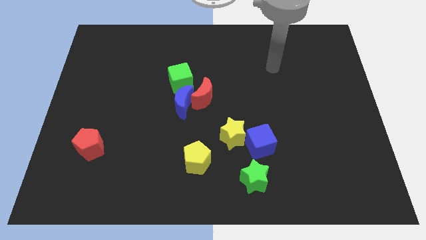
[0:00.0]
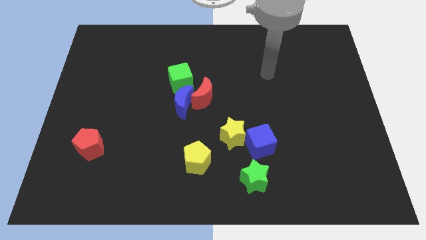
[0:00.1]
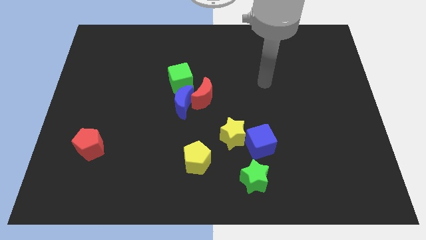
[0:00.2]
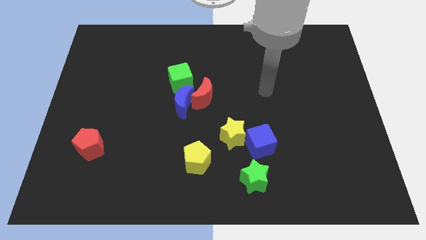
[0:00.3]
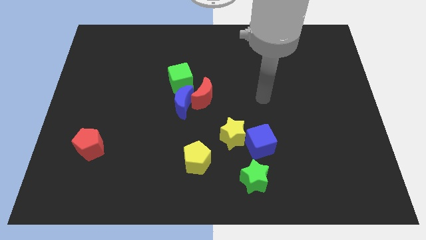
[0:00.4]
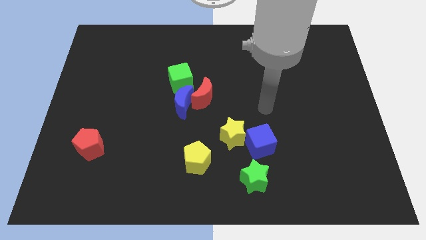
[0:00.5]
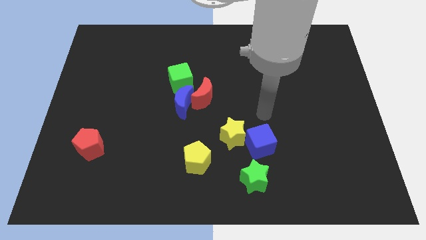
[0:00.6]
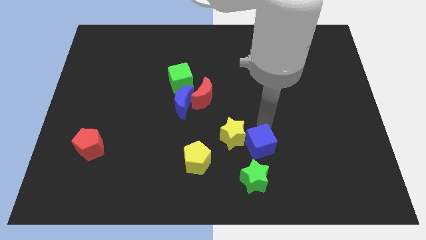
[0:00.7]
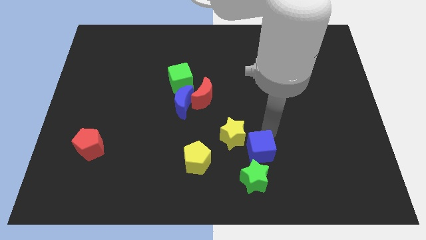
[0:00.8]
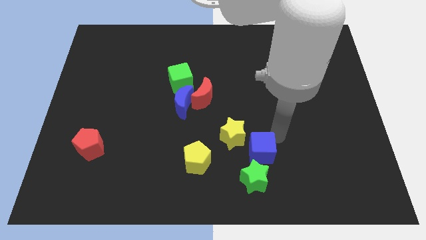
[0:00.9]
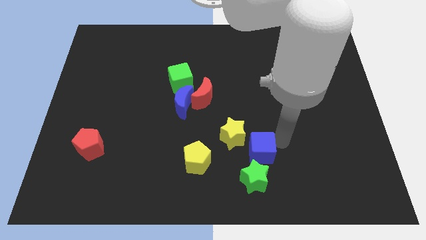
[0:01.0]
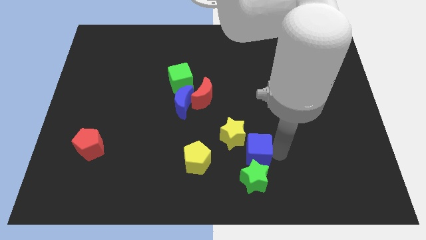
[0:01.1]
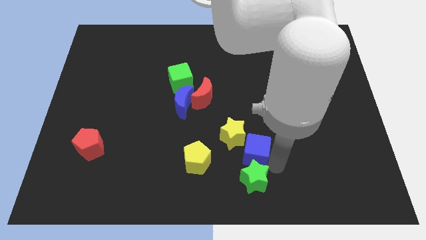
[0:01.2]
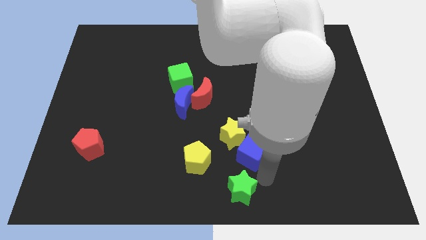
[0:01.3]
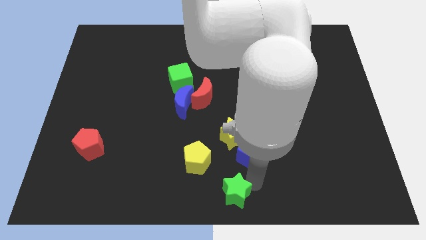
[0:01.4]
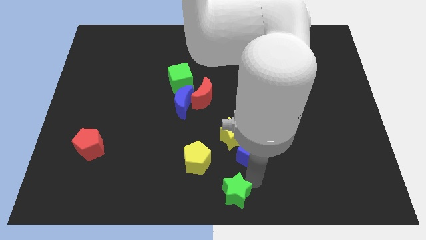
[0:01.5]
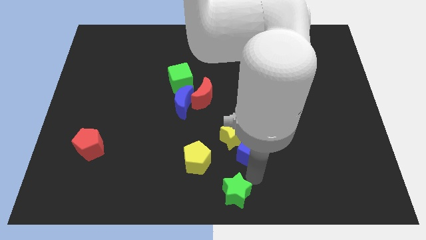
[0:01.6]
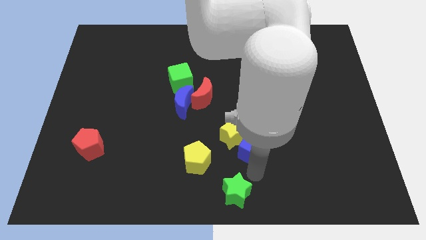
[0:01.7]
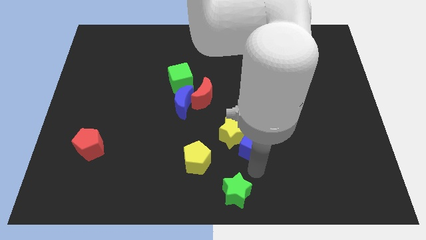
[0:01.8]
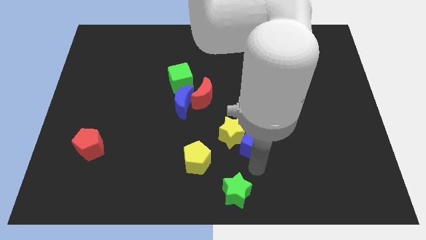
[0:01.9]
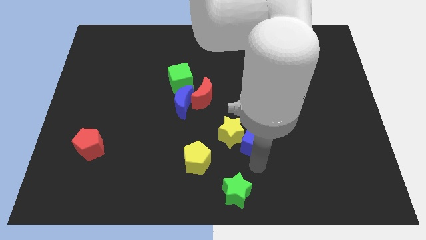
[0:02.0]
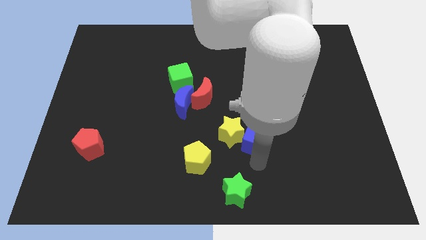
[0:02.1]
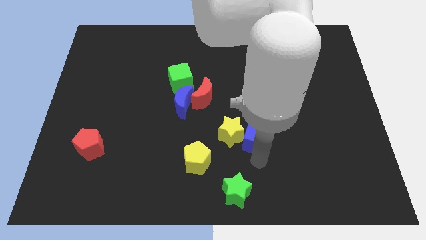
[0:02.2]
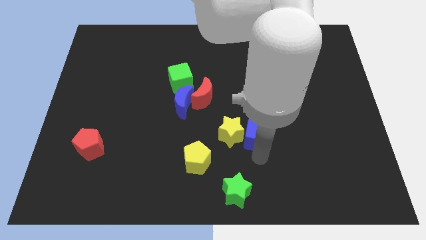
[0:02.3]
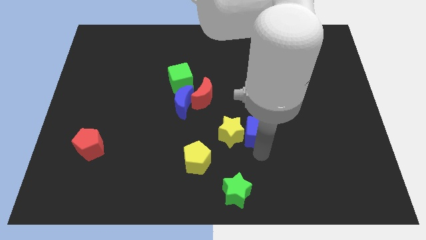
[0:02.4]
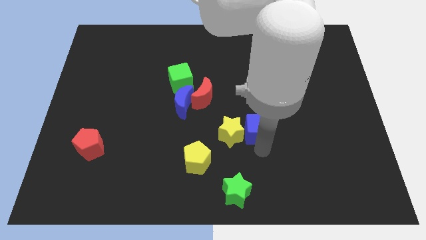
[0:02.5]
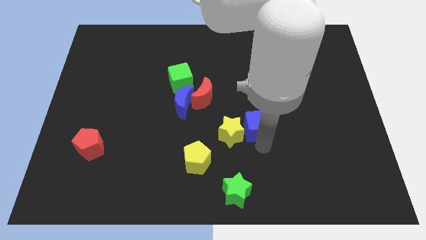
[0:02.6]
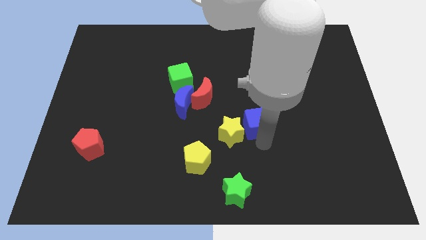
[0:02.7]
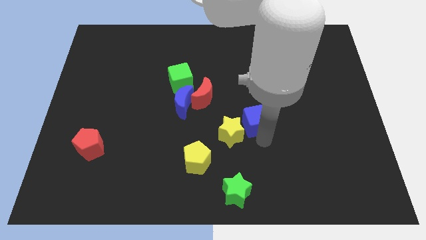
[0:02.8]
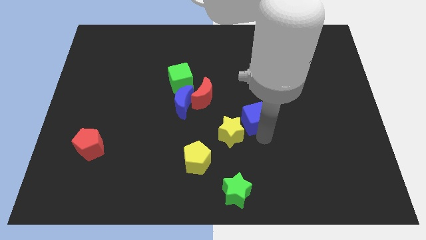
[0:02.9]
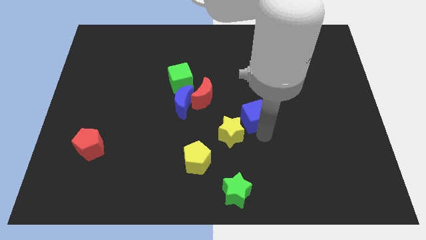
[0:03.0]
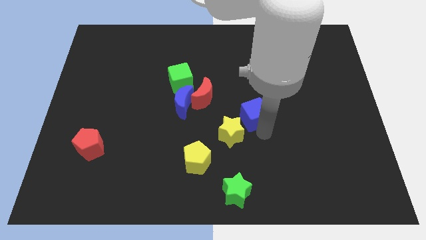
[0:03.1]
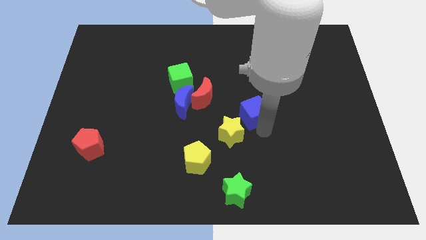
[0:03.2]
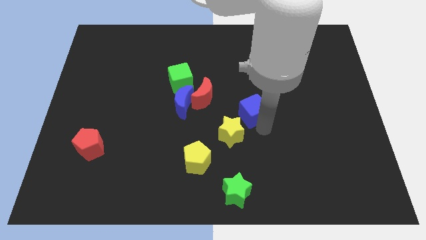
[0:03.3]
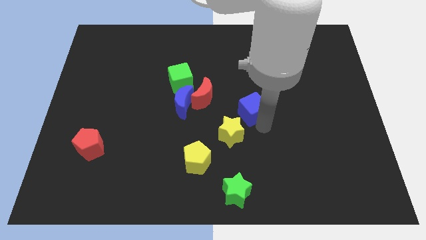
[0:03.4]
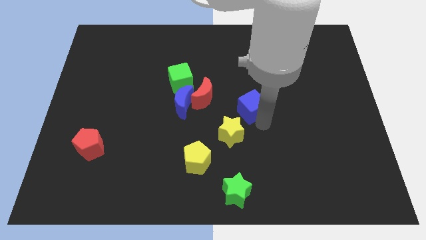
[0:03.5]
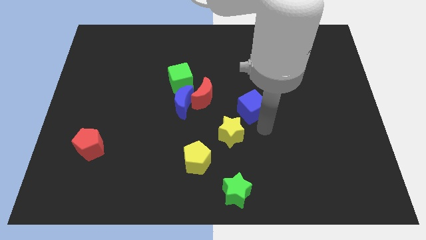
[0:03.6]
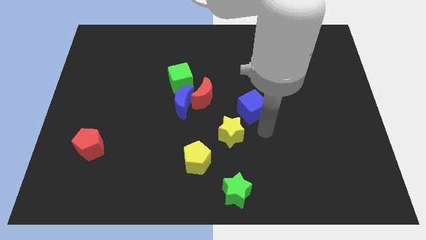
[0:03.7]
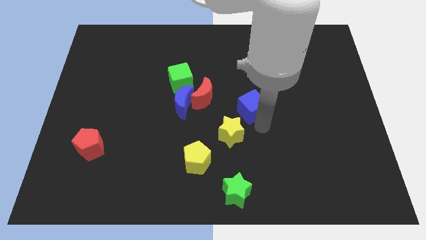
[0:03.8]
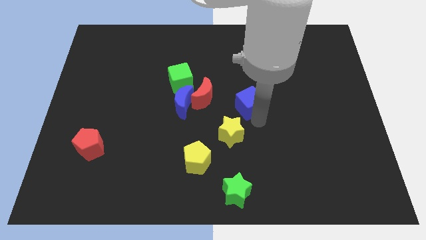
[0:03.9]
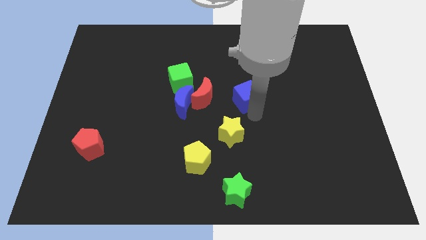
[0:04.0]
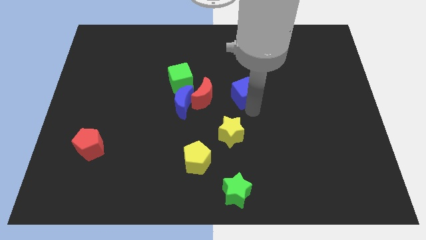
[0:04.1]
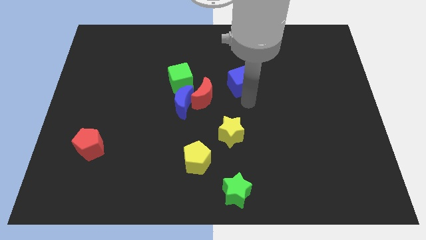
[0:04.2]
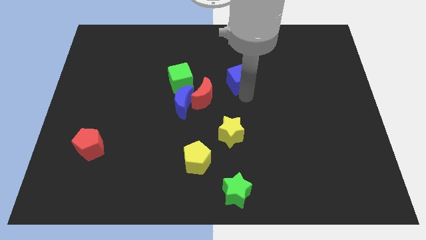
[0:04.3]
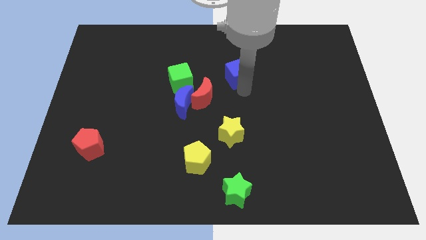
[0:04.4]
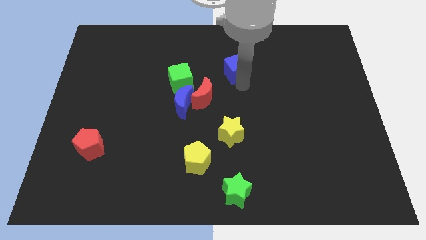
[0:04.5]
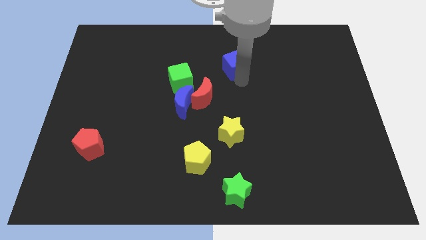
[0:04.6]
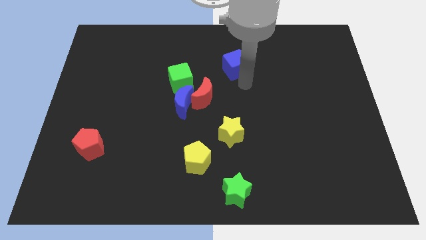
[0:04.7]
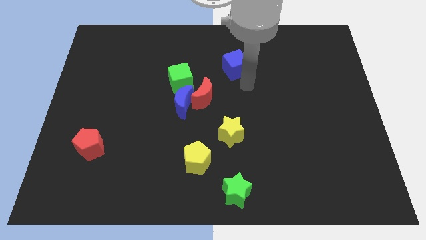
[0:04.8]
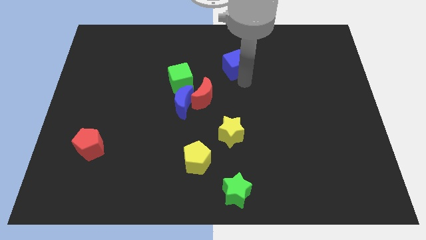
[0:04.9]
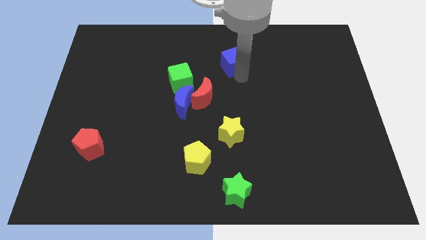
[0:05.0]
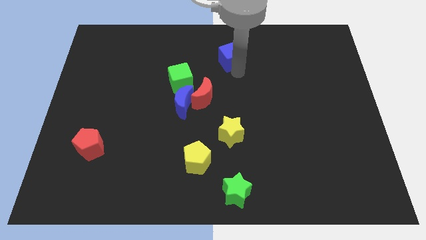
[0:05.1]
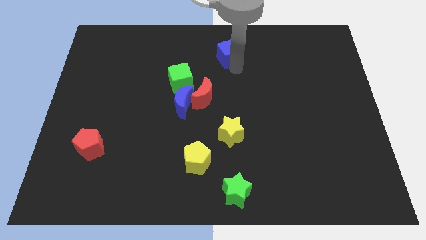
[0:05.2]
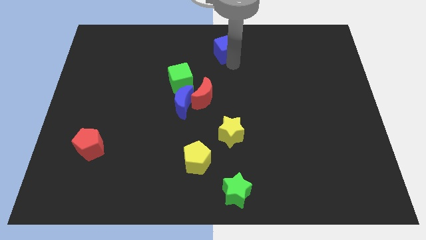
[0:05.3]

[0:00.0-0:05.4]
put the blue cube to the top side

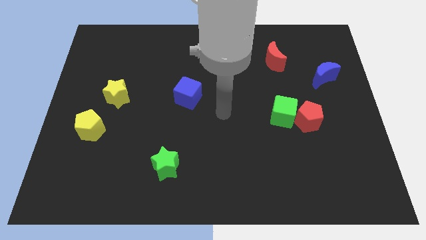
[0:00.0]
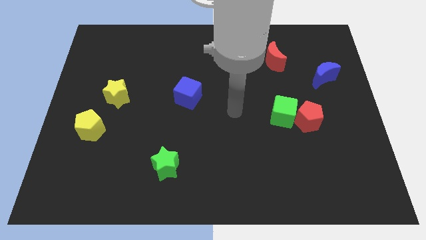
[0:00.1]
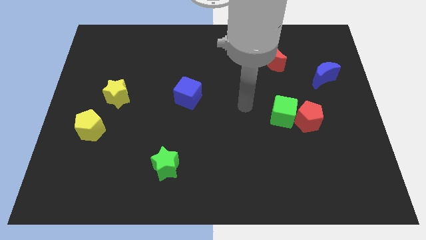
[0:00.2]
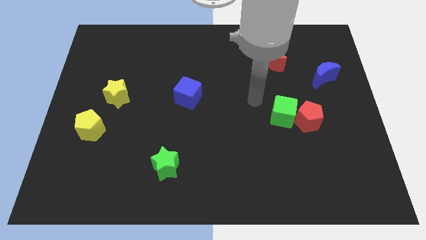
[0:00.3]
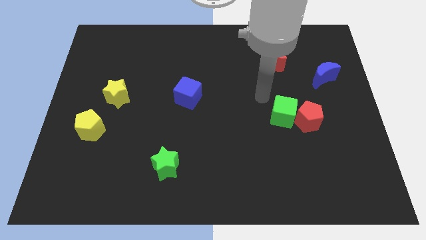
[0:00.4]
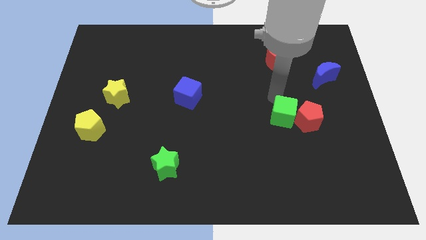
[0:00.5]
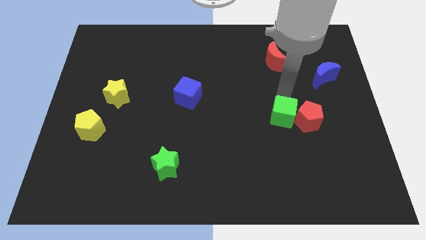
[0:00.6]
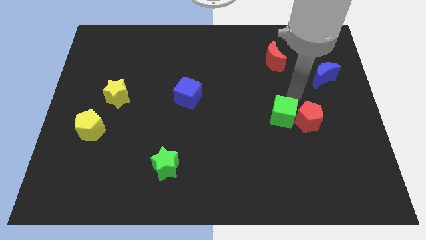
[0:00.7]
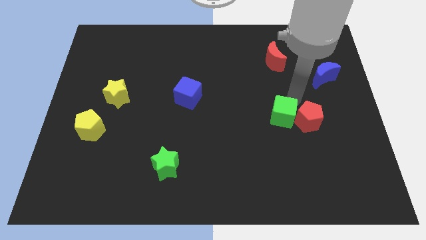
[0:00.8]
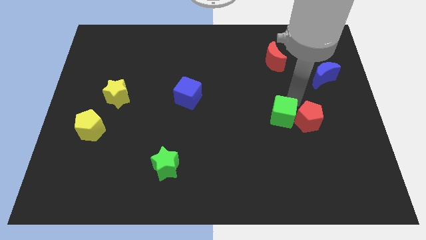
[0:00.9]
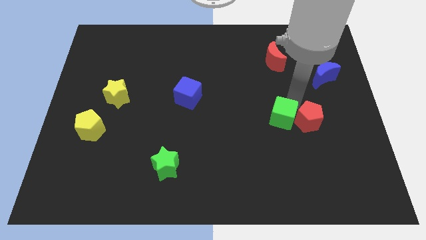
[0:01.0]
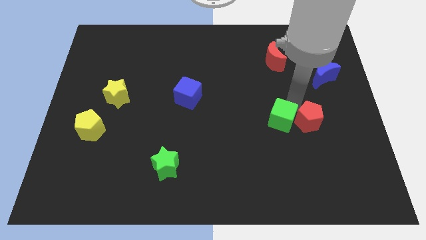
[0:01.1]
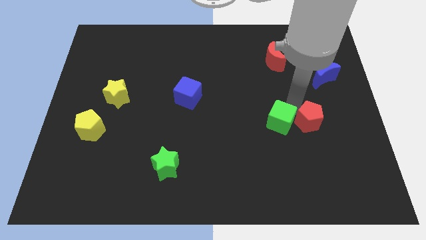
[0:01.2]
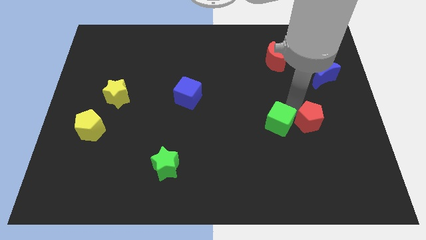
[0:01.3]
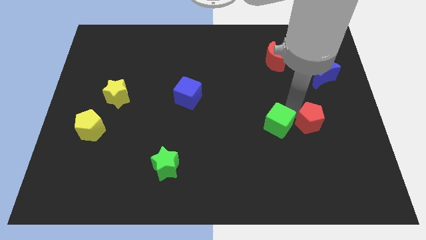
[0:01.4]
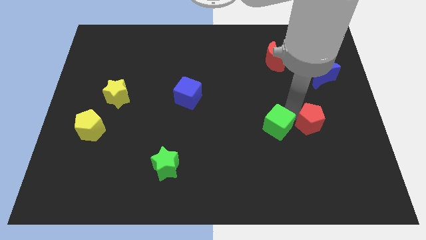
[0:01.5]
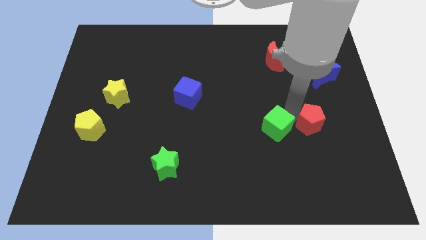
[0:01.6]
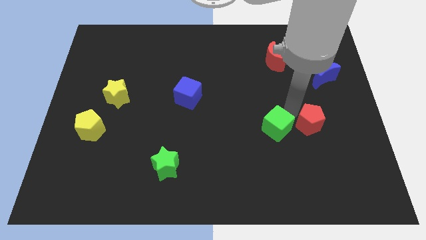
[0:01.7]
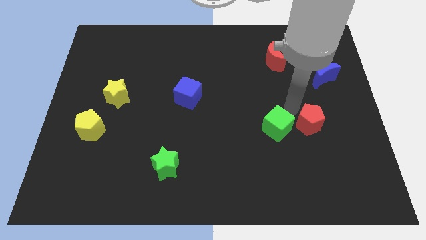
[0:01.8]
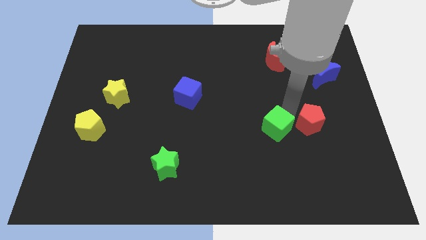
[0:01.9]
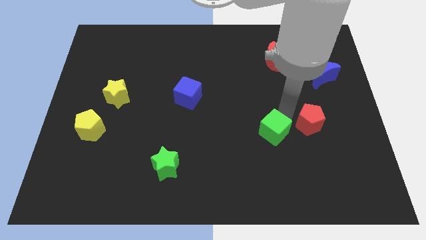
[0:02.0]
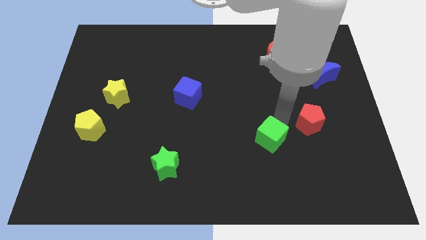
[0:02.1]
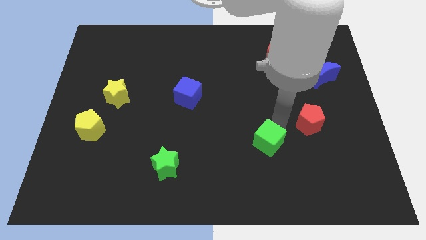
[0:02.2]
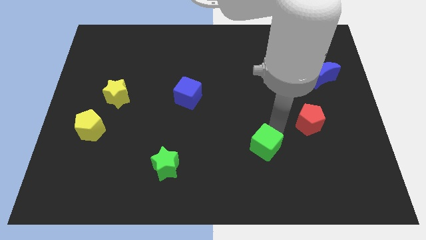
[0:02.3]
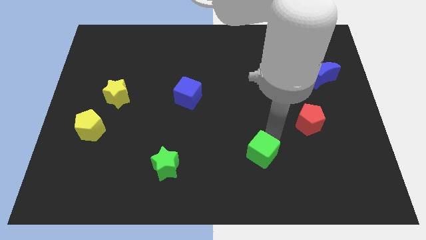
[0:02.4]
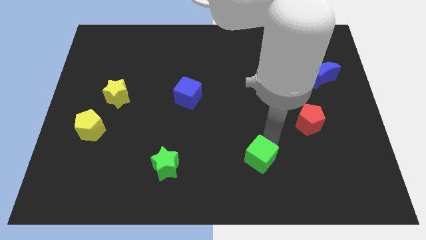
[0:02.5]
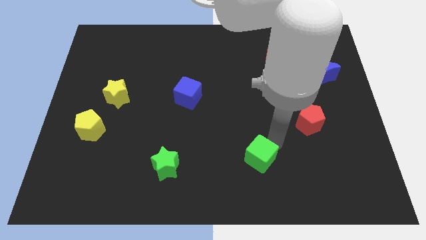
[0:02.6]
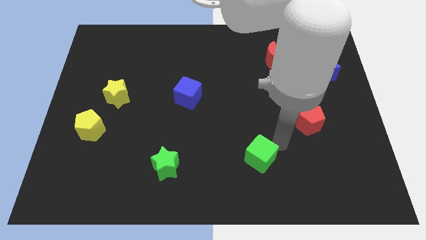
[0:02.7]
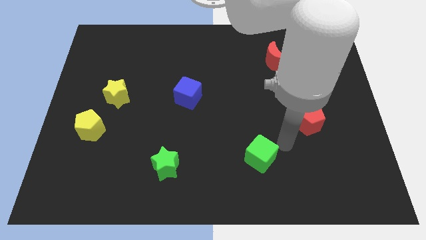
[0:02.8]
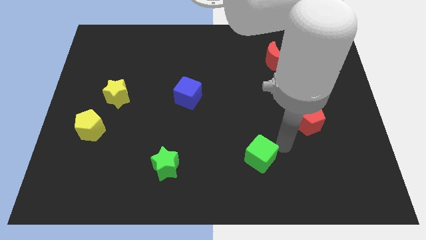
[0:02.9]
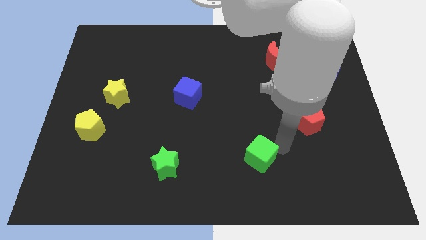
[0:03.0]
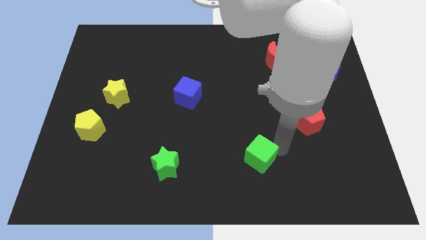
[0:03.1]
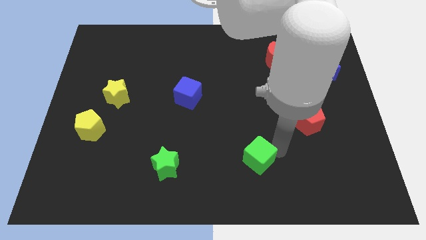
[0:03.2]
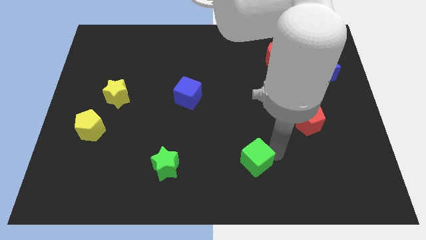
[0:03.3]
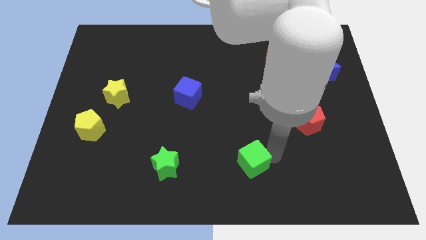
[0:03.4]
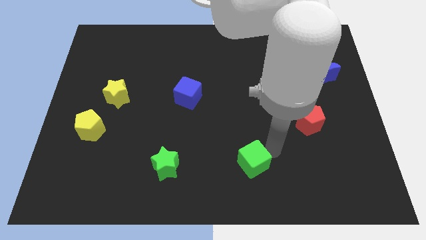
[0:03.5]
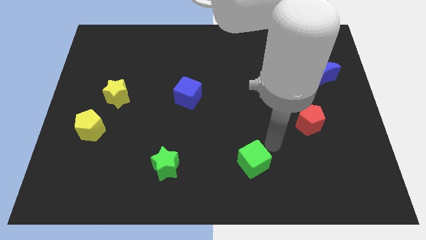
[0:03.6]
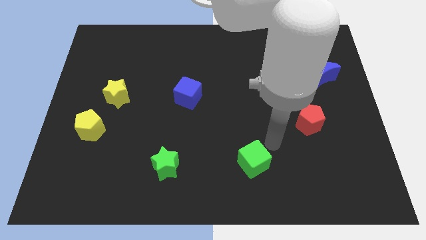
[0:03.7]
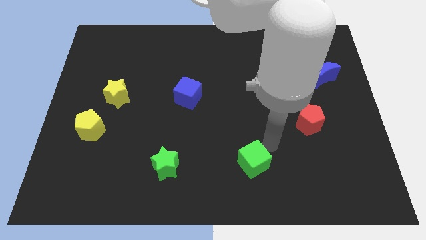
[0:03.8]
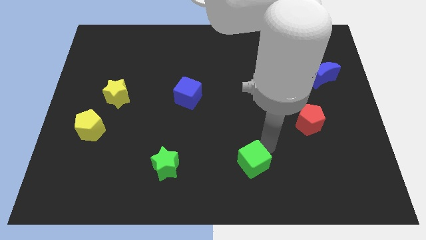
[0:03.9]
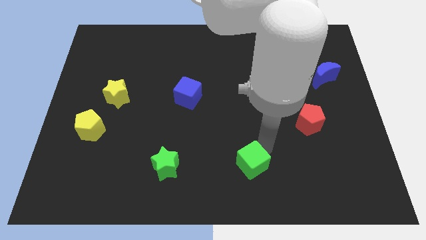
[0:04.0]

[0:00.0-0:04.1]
slide the green cube to the bottom side
